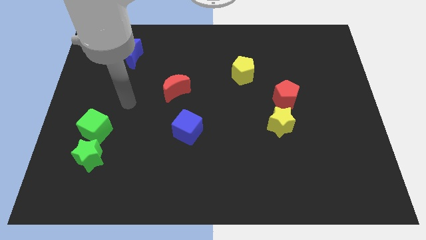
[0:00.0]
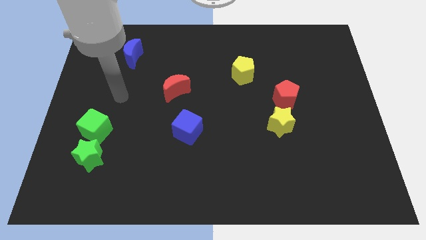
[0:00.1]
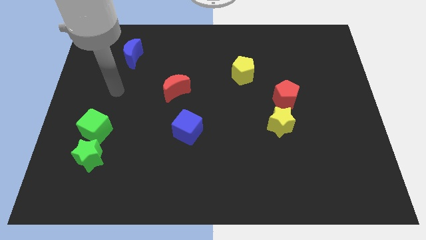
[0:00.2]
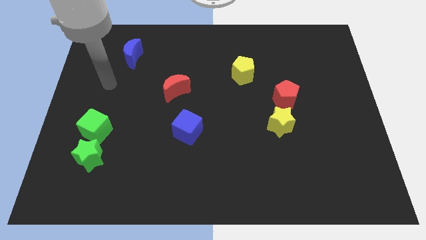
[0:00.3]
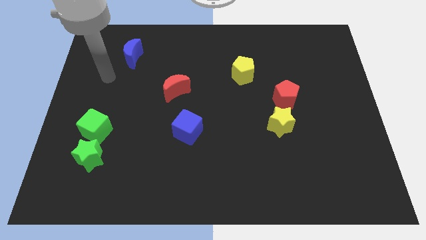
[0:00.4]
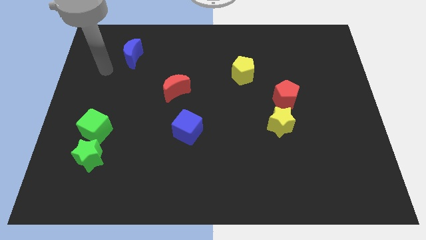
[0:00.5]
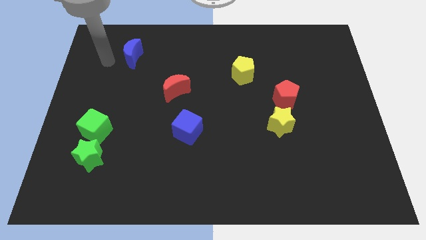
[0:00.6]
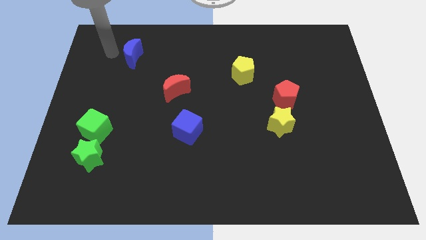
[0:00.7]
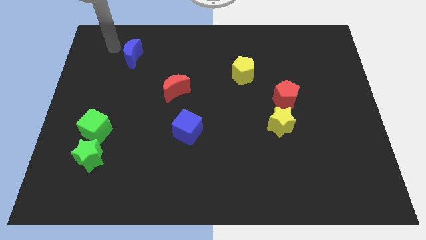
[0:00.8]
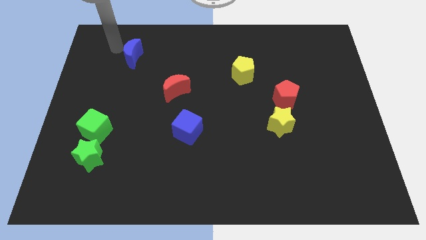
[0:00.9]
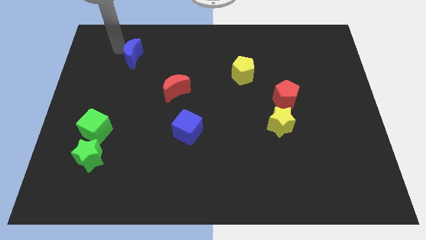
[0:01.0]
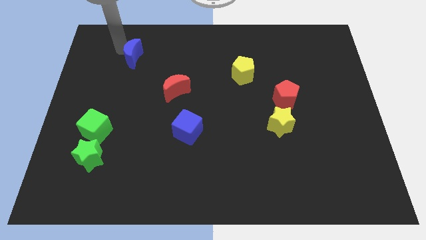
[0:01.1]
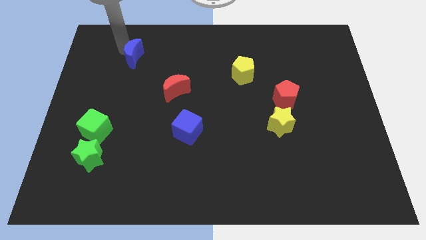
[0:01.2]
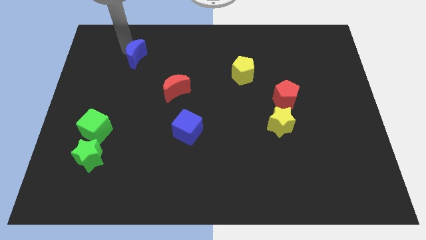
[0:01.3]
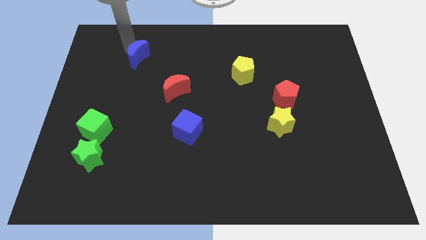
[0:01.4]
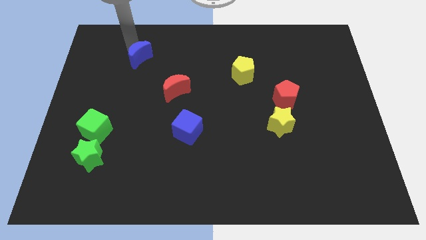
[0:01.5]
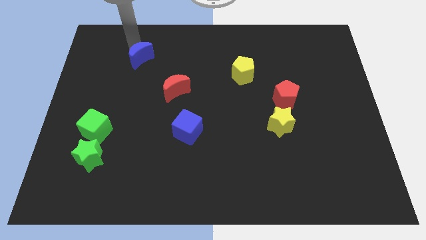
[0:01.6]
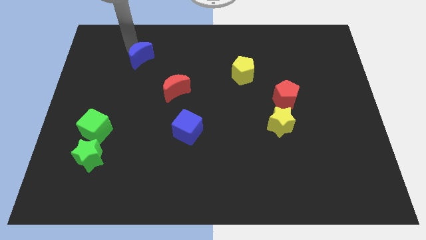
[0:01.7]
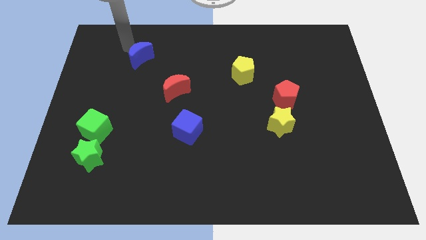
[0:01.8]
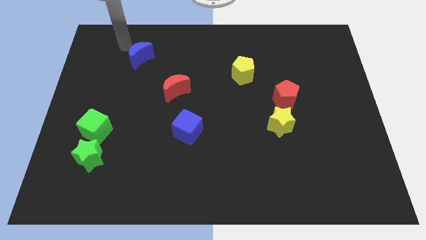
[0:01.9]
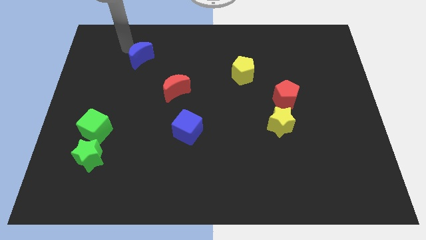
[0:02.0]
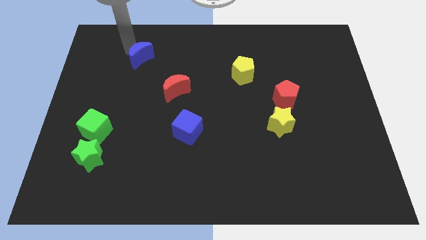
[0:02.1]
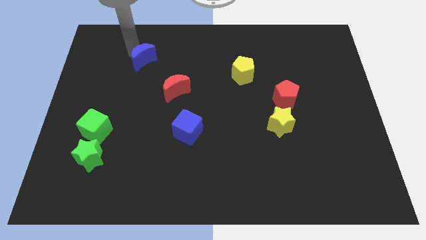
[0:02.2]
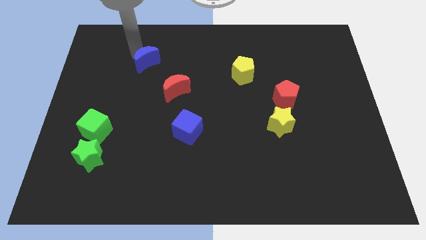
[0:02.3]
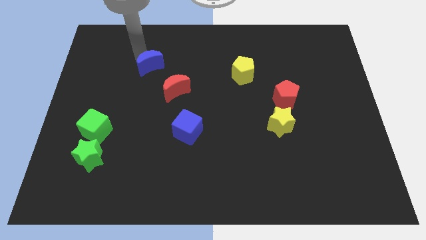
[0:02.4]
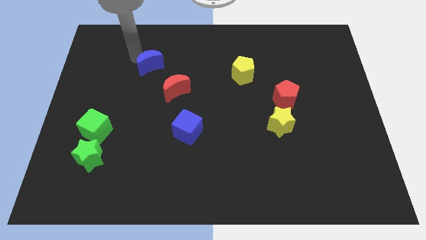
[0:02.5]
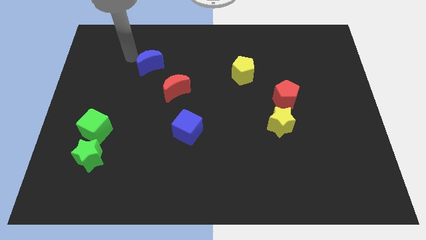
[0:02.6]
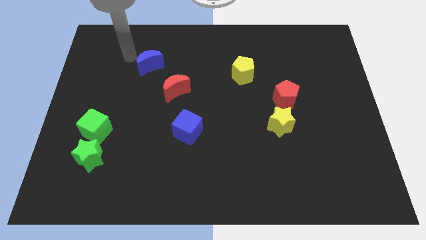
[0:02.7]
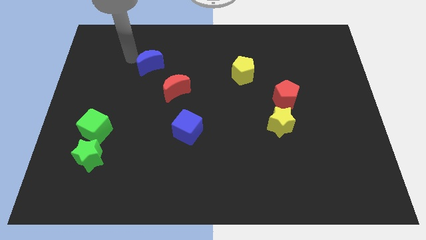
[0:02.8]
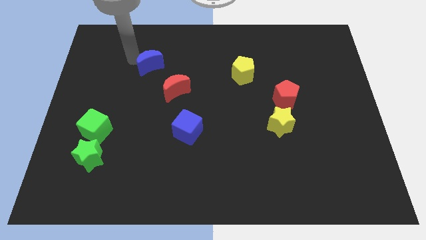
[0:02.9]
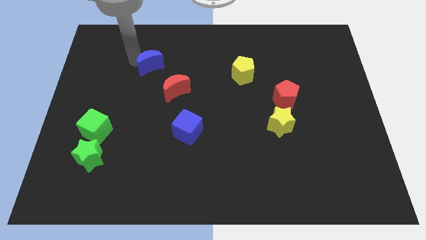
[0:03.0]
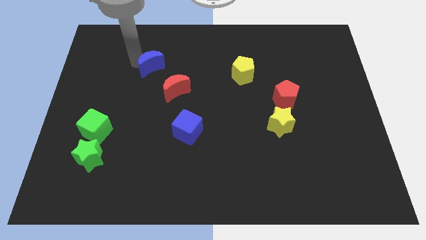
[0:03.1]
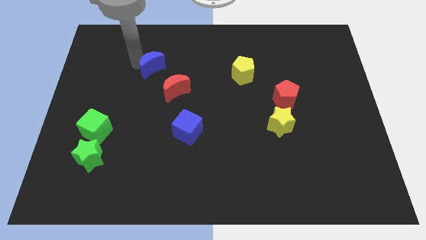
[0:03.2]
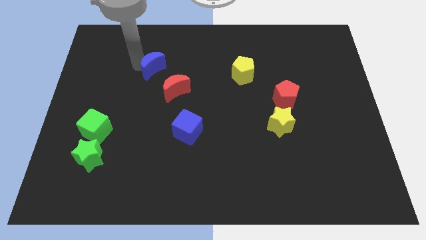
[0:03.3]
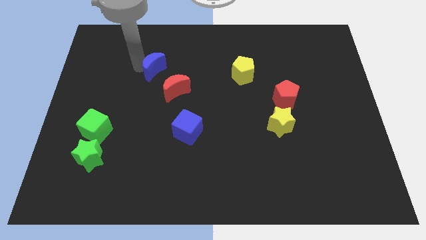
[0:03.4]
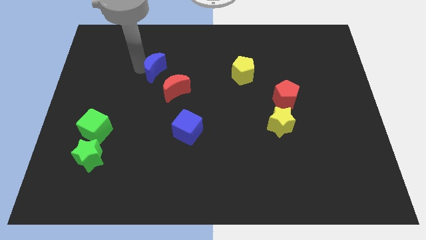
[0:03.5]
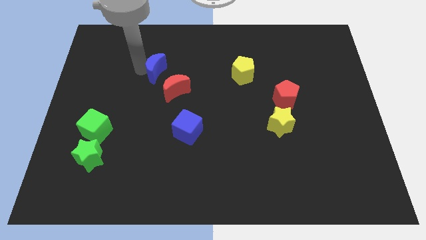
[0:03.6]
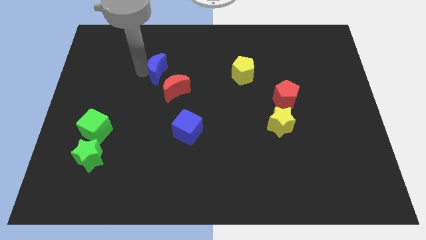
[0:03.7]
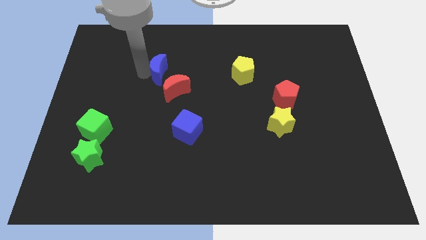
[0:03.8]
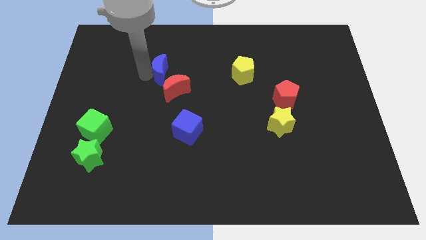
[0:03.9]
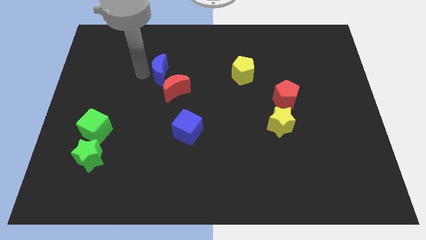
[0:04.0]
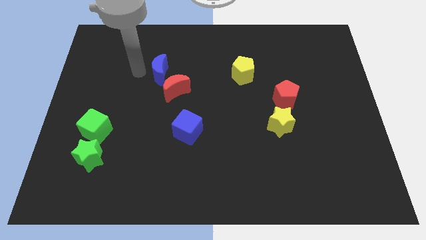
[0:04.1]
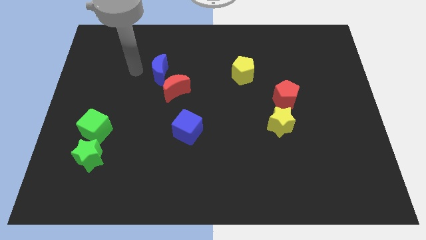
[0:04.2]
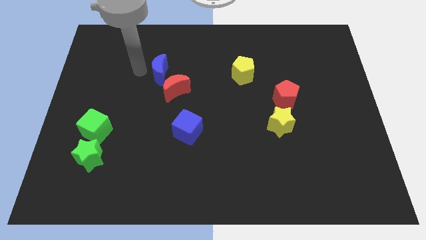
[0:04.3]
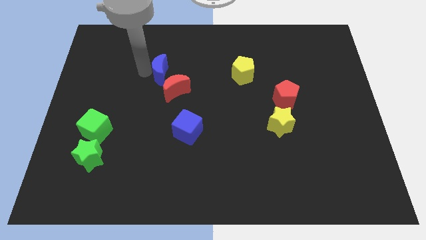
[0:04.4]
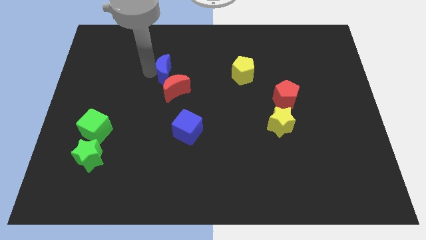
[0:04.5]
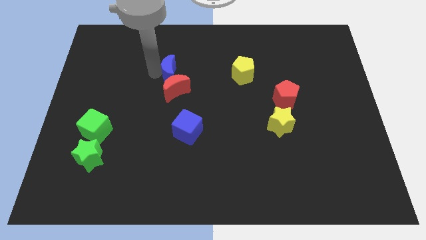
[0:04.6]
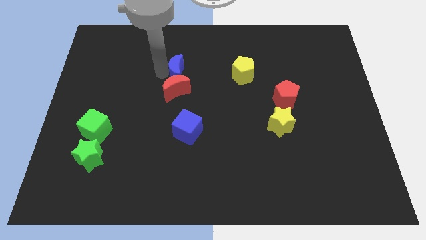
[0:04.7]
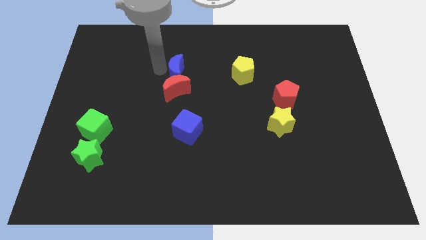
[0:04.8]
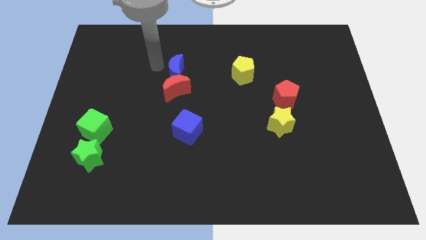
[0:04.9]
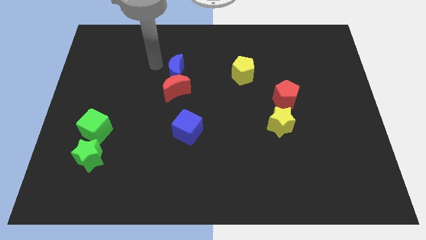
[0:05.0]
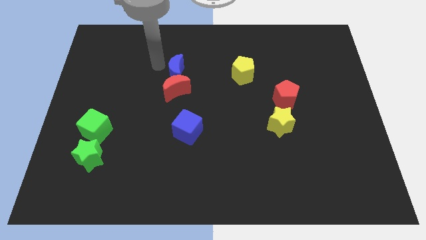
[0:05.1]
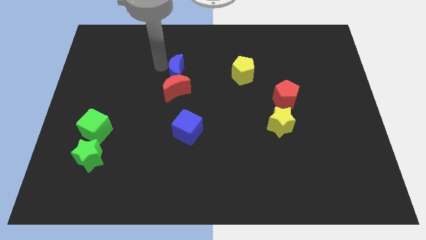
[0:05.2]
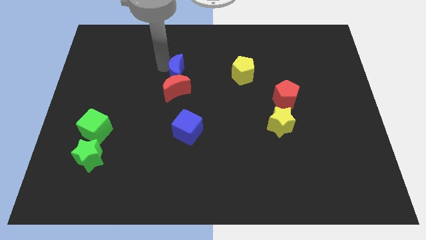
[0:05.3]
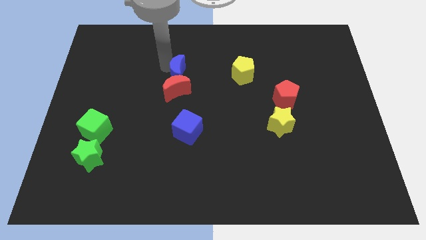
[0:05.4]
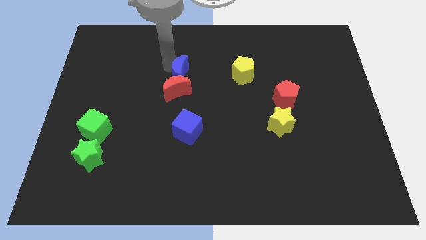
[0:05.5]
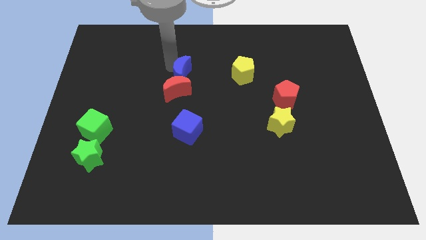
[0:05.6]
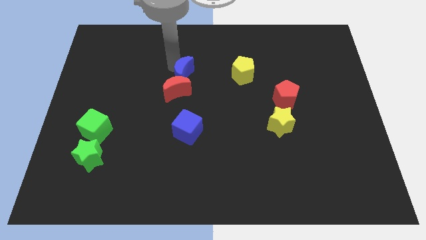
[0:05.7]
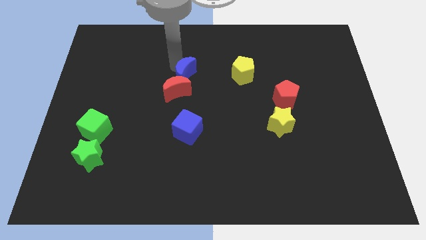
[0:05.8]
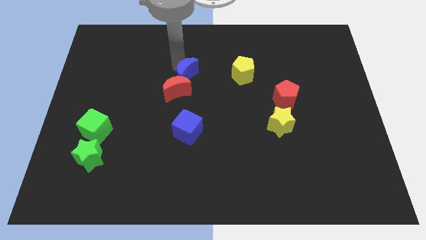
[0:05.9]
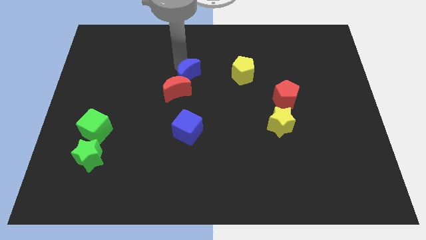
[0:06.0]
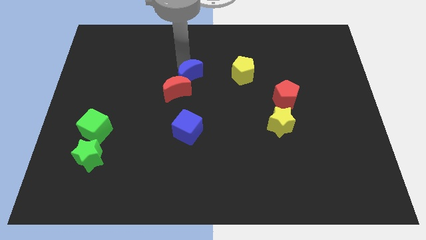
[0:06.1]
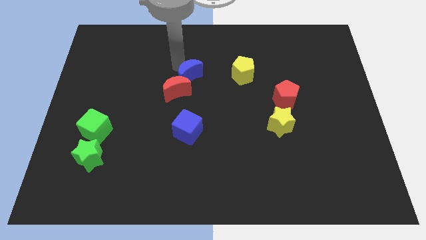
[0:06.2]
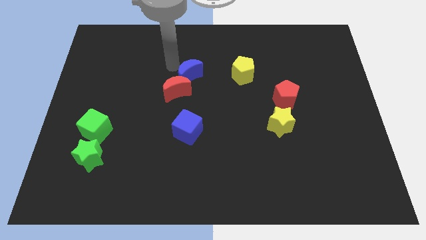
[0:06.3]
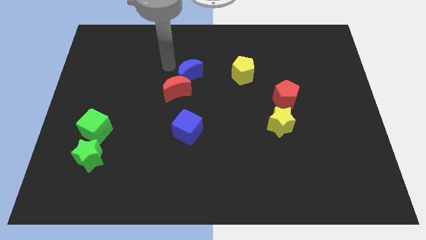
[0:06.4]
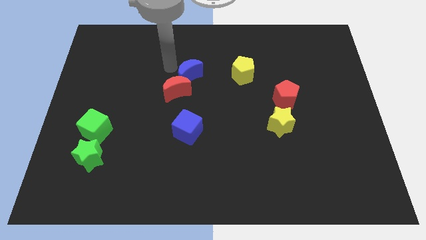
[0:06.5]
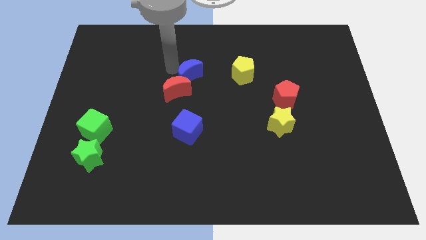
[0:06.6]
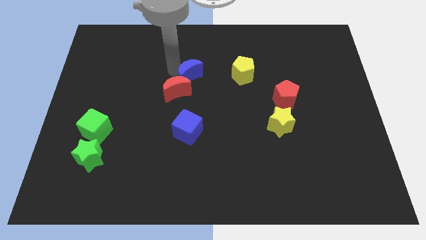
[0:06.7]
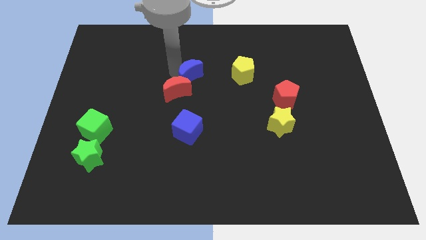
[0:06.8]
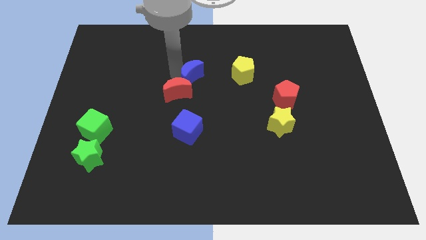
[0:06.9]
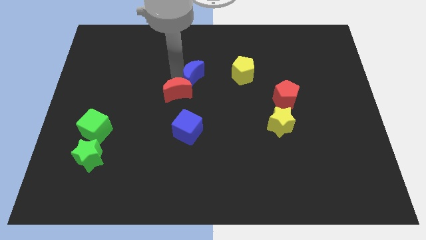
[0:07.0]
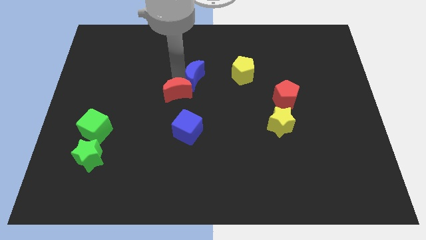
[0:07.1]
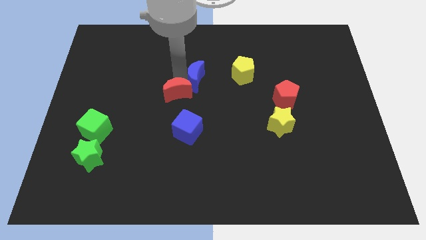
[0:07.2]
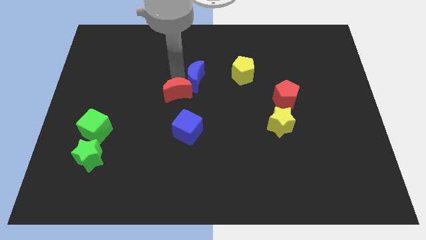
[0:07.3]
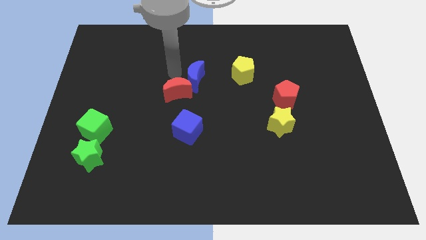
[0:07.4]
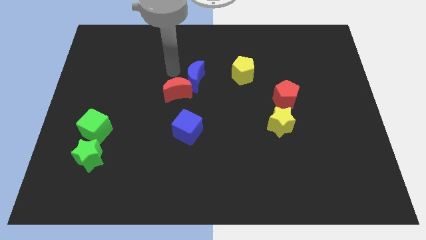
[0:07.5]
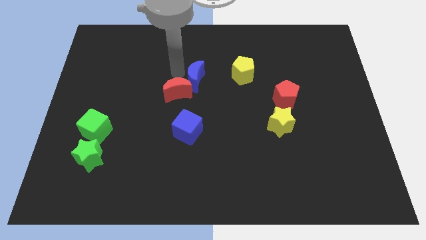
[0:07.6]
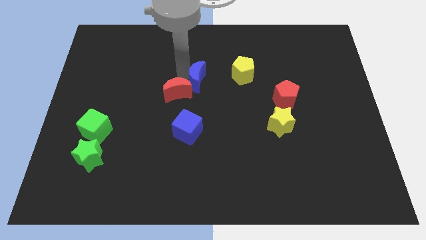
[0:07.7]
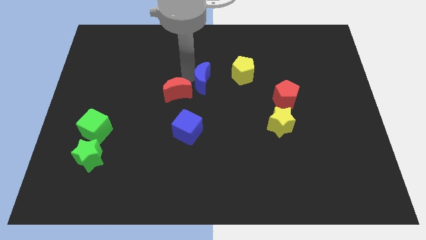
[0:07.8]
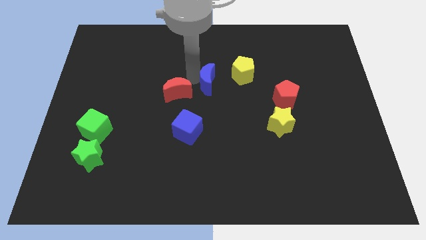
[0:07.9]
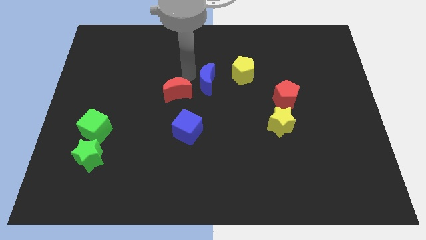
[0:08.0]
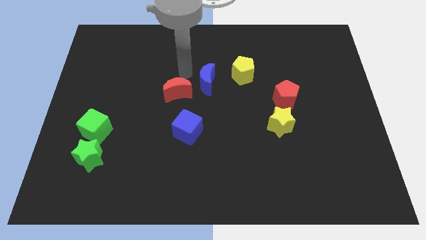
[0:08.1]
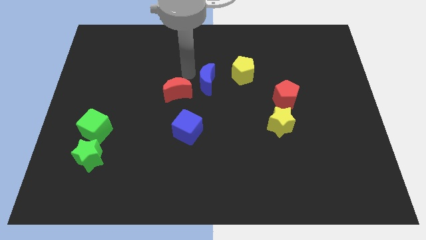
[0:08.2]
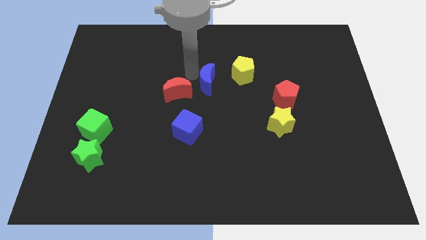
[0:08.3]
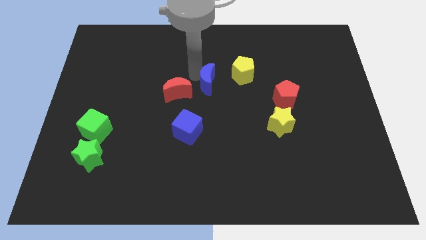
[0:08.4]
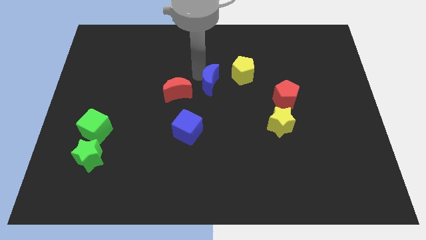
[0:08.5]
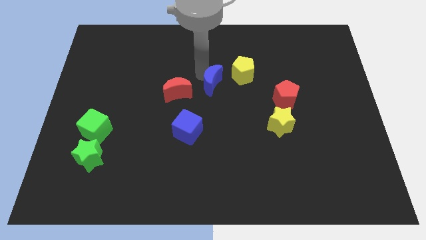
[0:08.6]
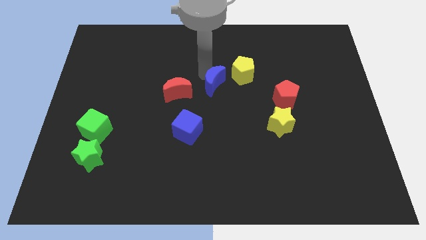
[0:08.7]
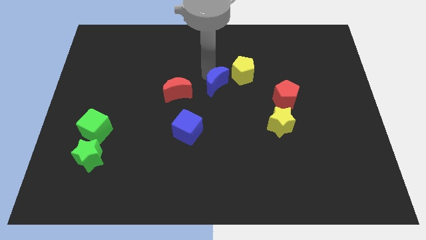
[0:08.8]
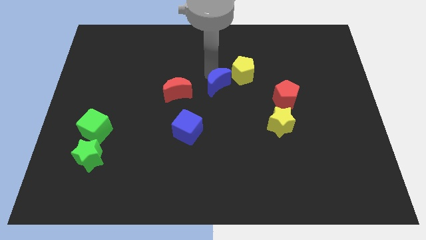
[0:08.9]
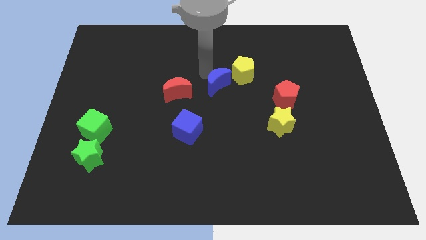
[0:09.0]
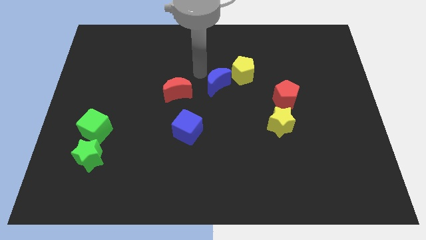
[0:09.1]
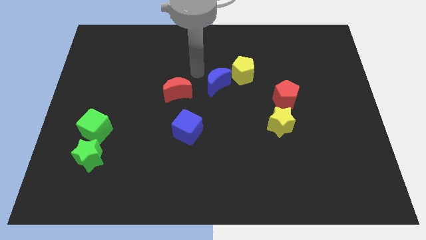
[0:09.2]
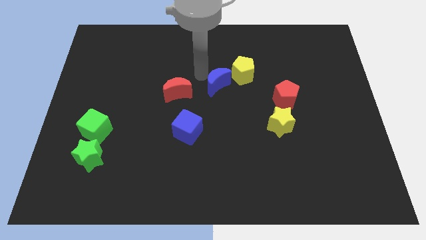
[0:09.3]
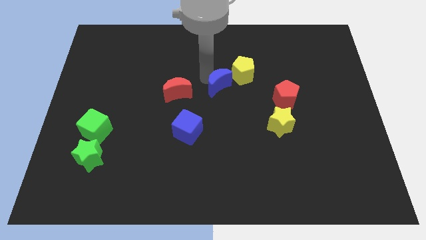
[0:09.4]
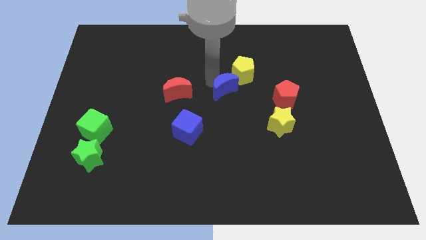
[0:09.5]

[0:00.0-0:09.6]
move the blue moon to the left of the red pentagon
